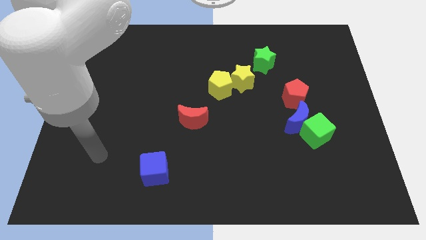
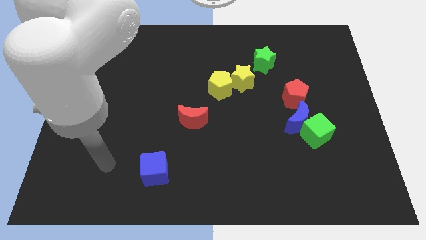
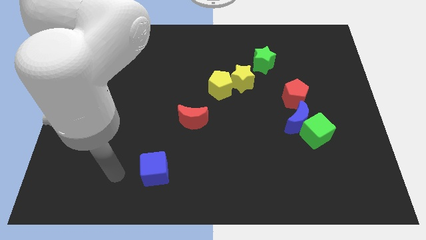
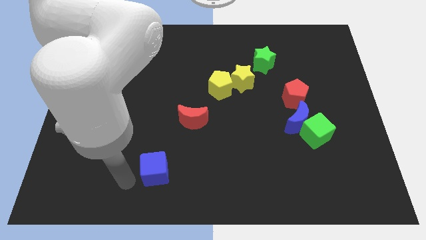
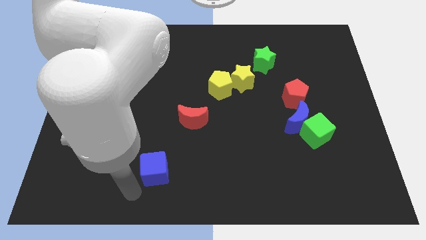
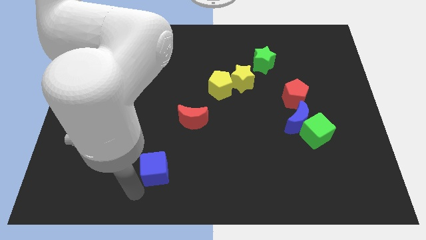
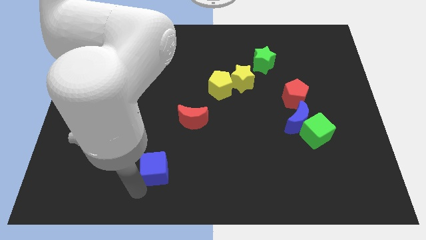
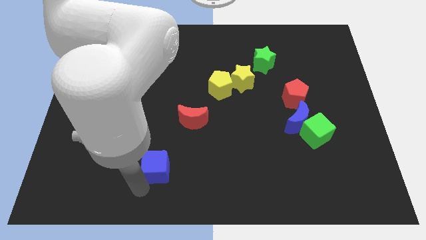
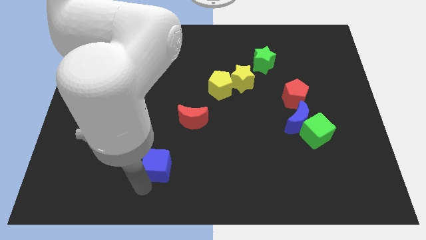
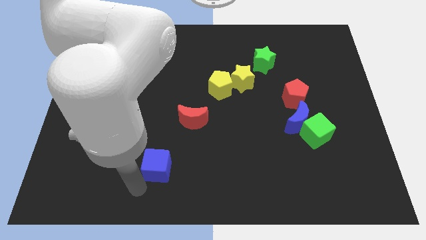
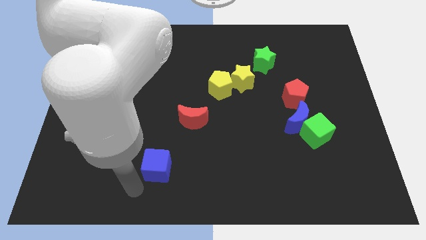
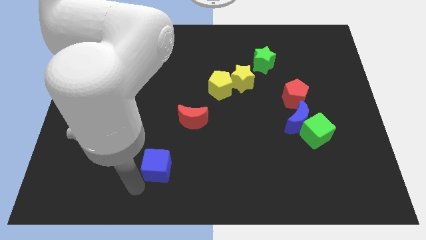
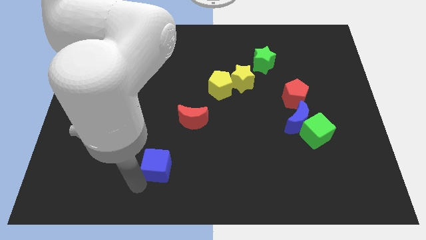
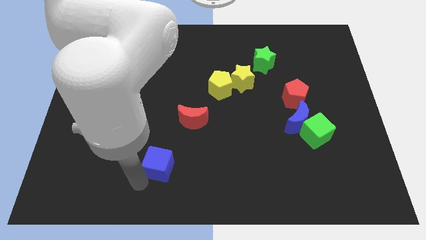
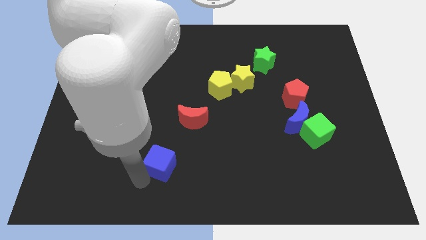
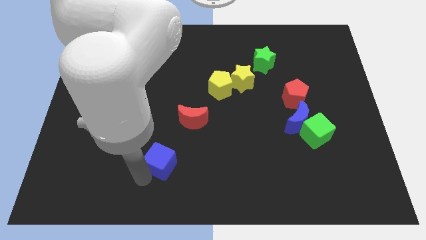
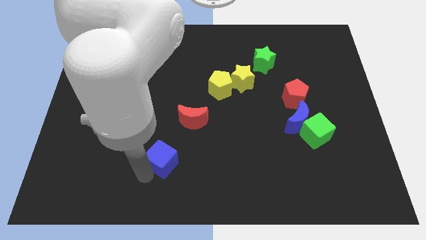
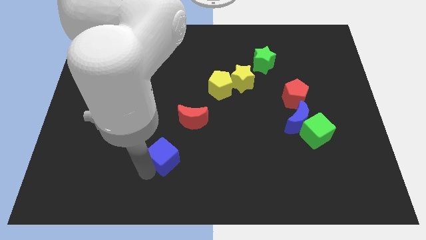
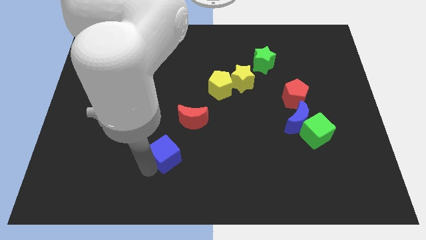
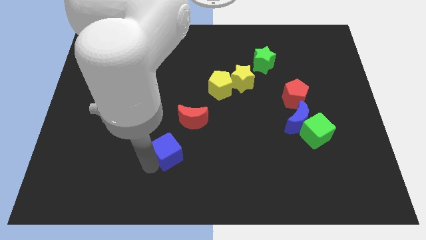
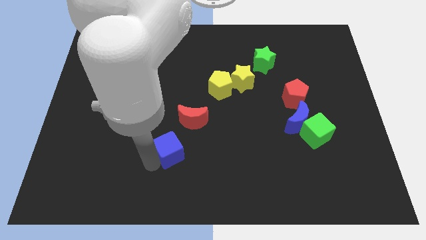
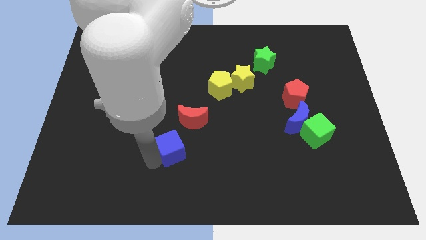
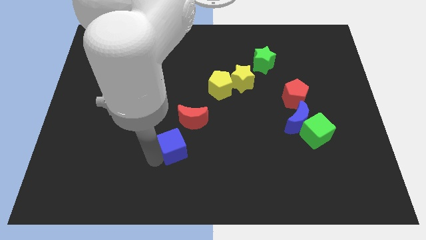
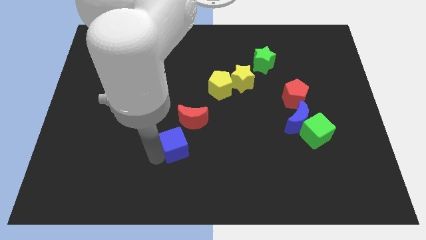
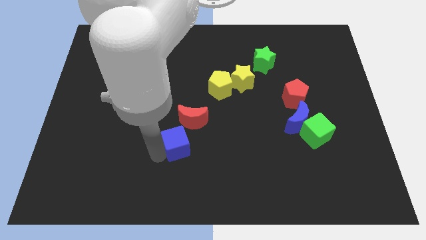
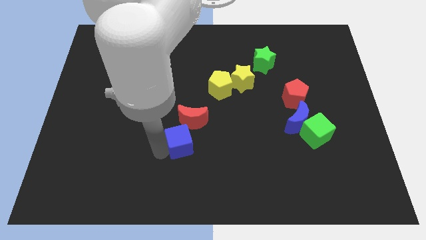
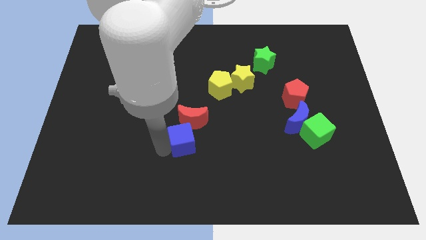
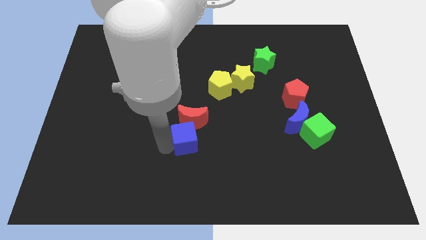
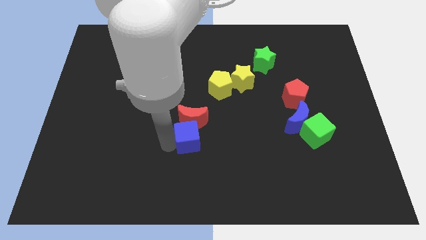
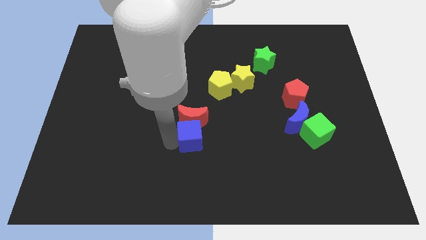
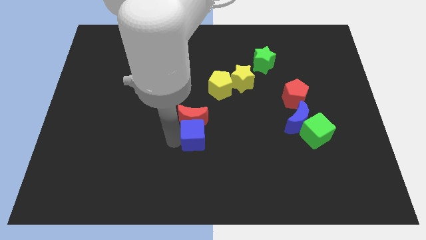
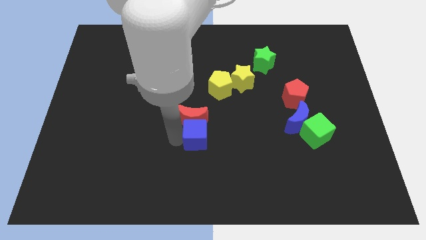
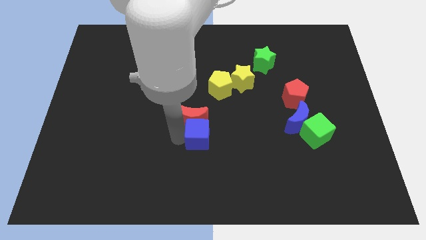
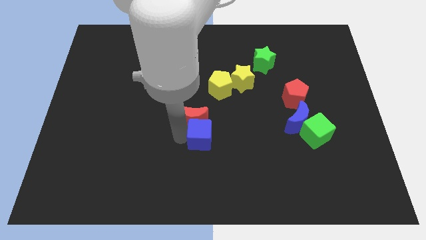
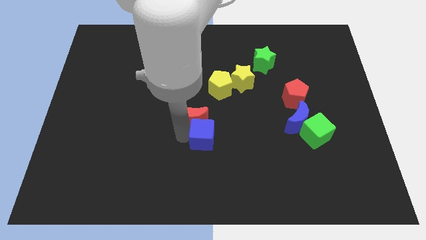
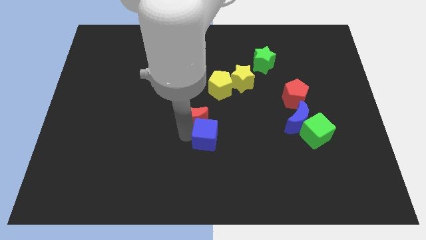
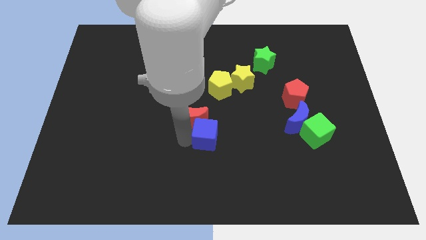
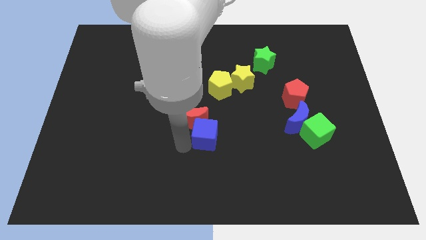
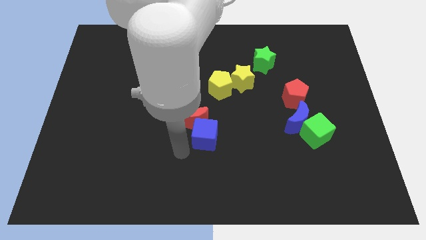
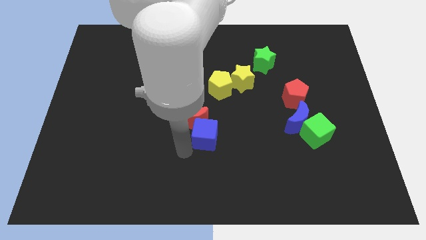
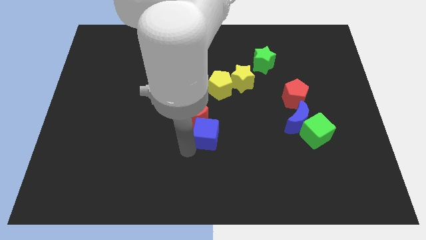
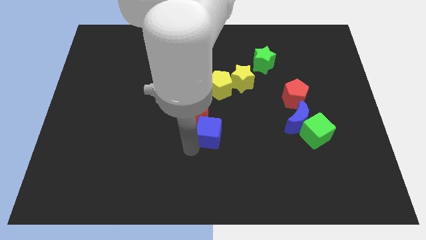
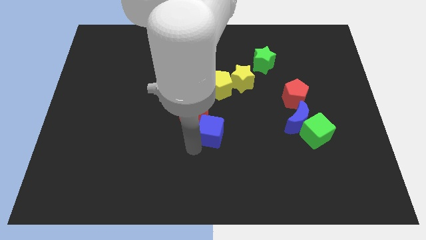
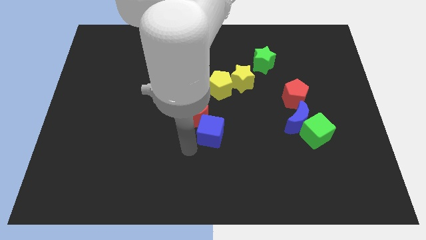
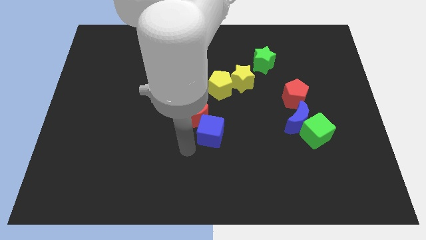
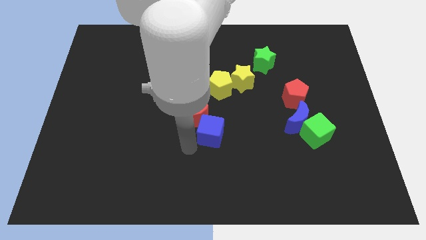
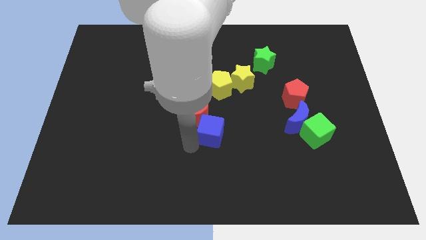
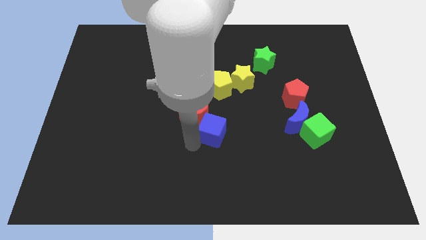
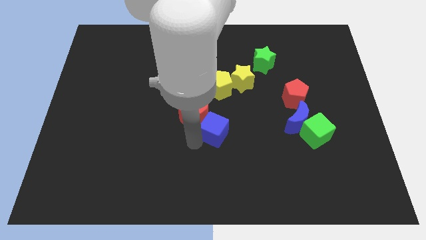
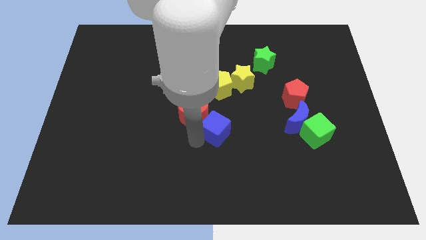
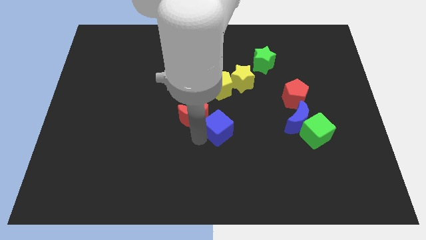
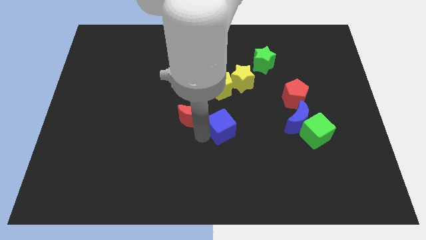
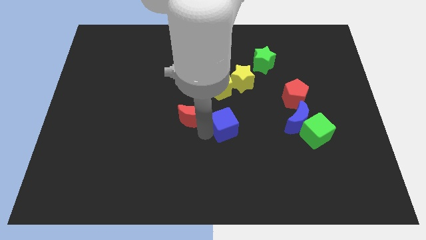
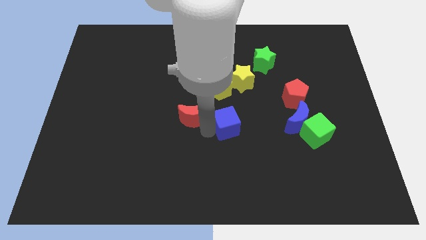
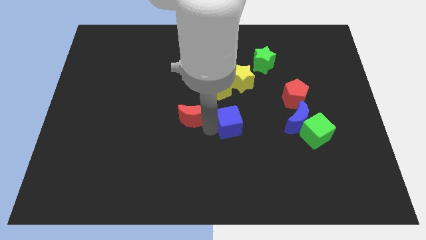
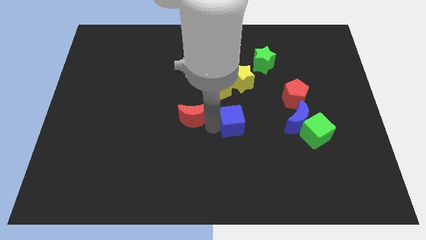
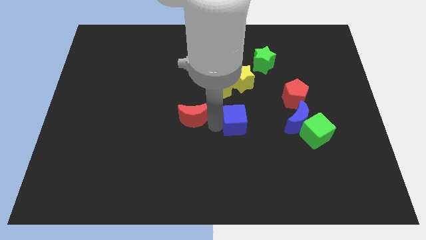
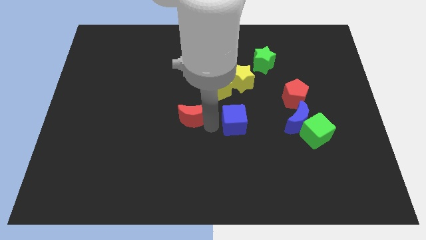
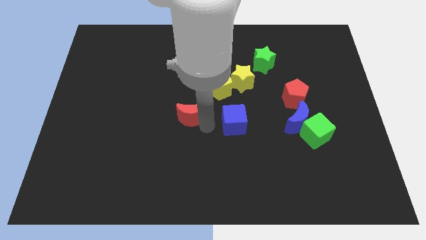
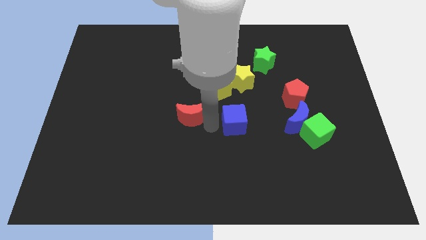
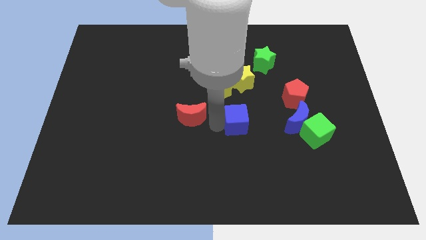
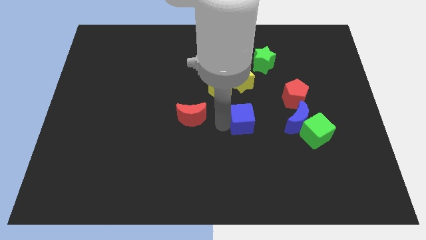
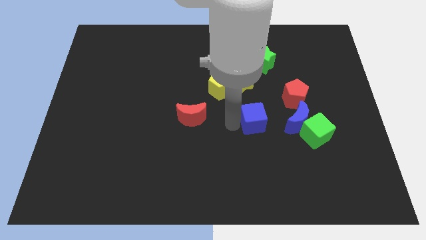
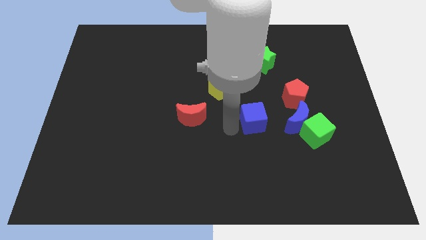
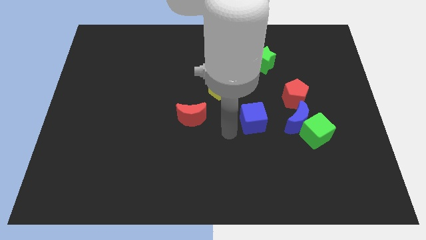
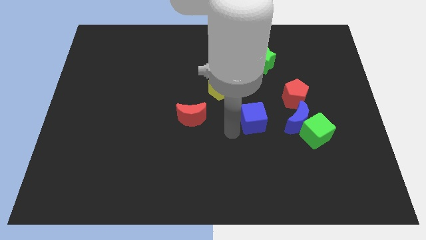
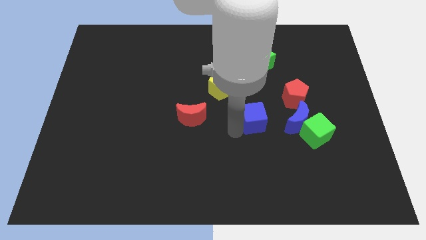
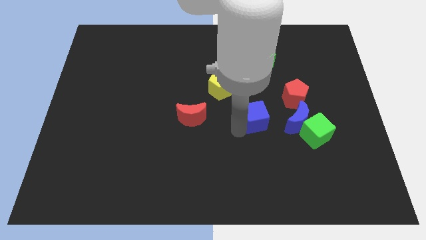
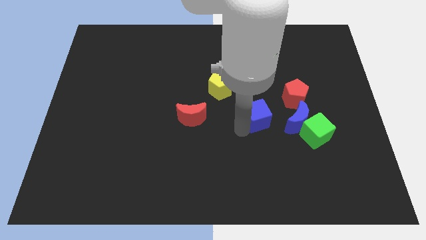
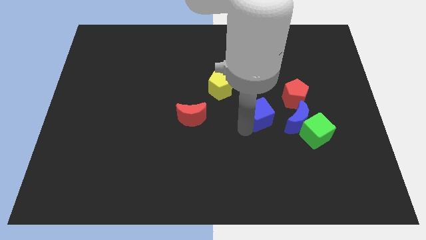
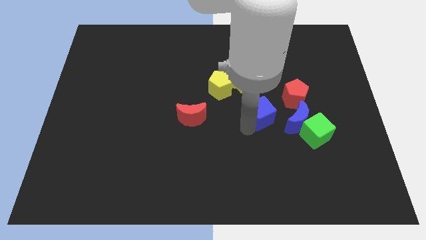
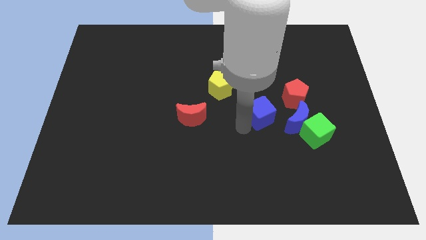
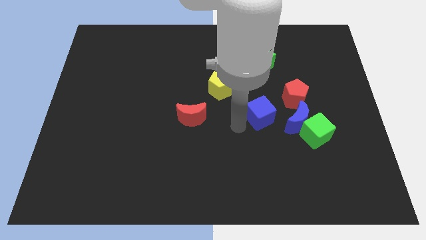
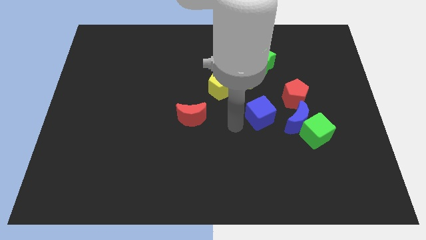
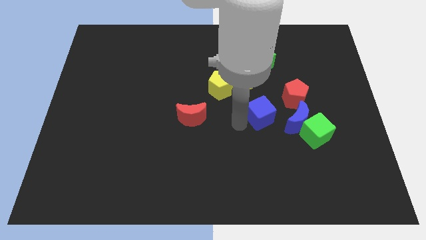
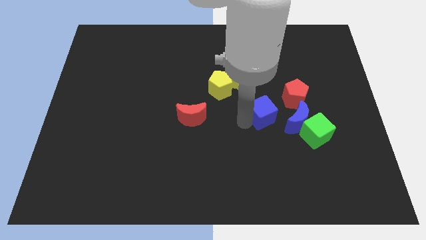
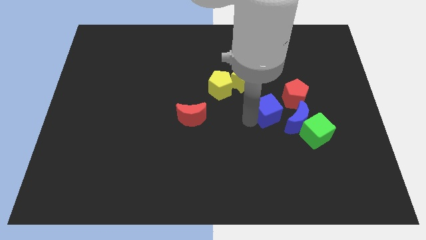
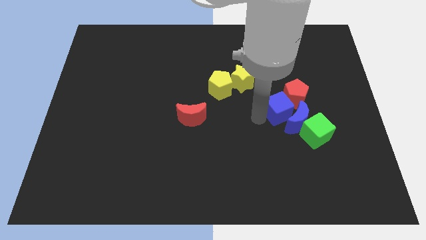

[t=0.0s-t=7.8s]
push the blue cube towards the red pentagon
